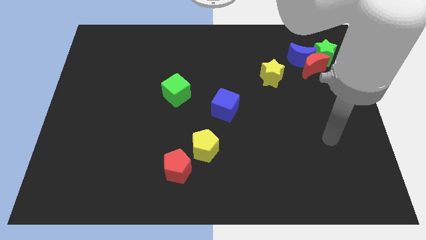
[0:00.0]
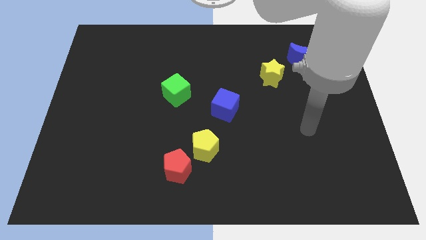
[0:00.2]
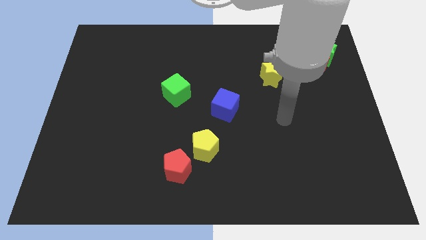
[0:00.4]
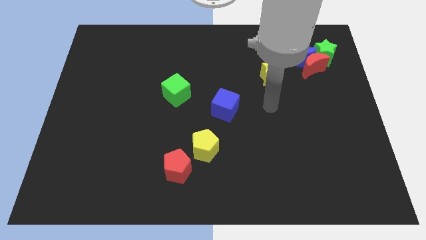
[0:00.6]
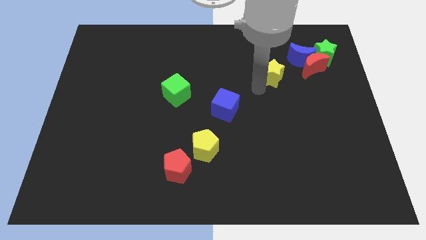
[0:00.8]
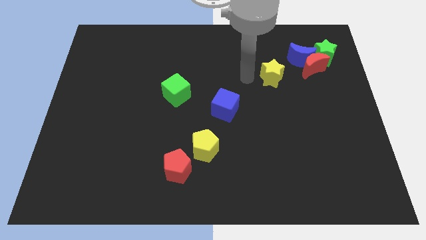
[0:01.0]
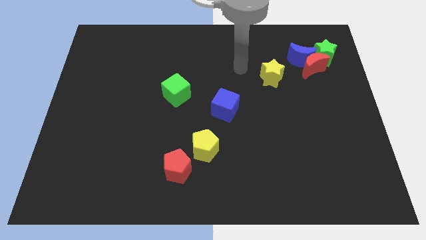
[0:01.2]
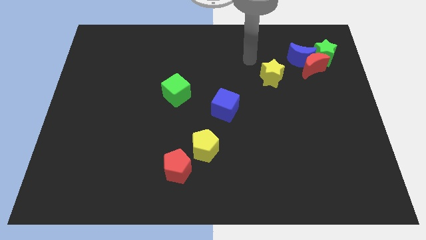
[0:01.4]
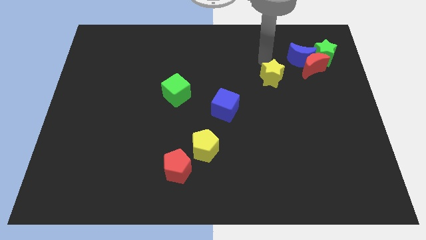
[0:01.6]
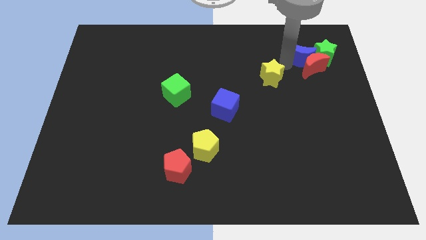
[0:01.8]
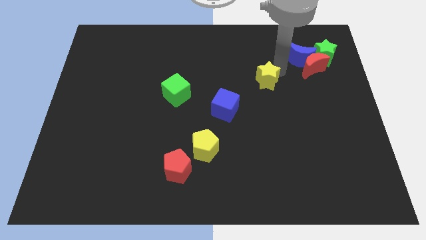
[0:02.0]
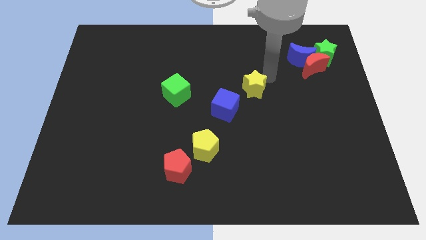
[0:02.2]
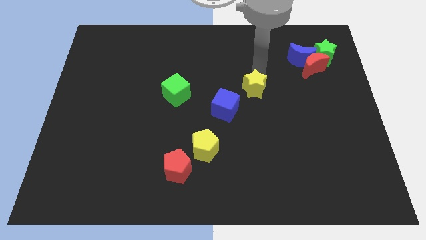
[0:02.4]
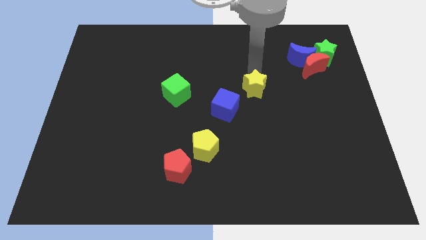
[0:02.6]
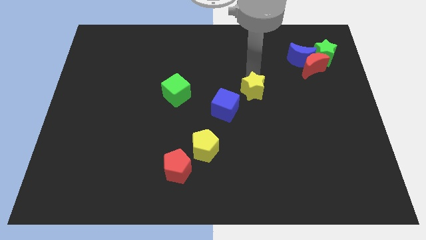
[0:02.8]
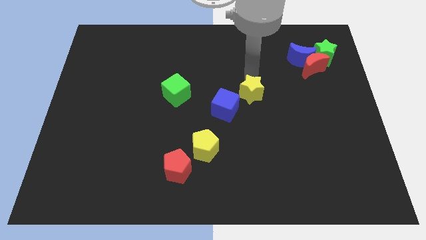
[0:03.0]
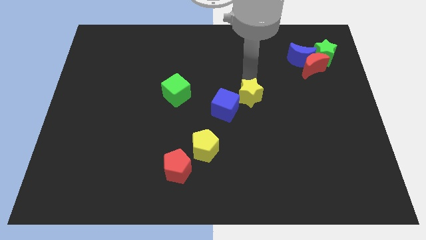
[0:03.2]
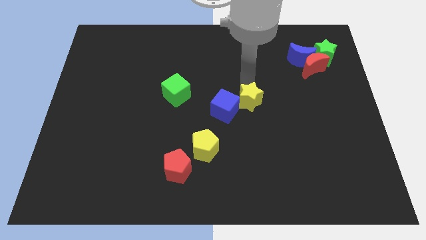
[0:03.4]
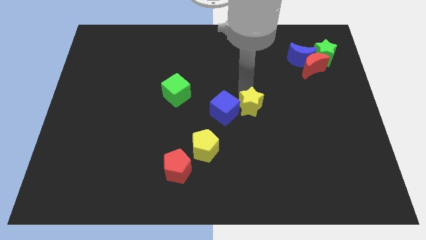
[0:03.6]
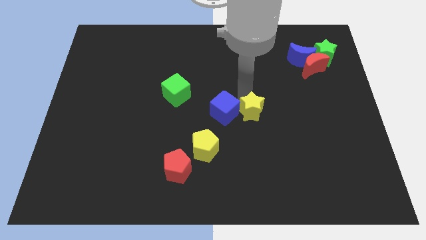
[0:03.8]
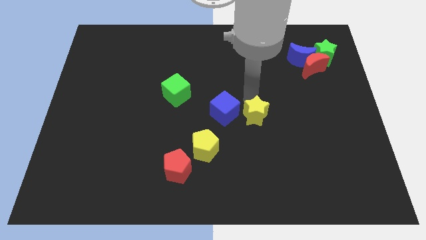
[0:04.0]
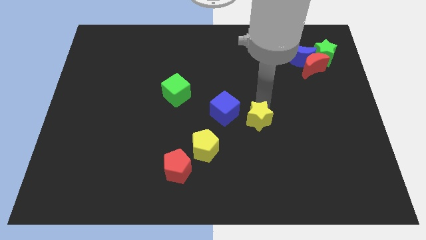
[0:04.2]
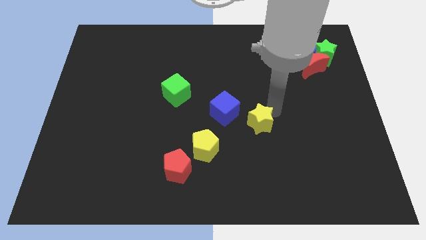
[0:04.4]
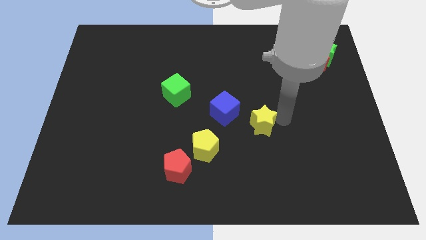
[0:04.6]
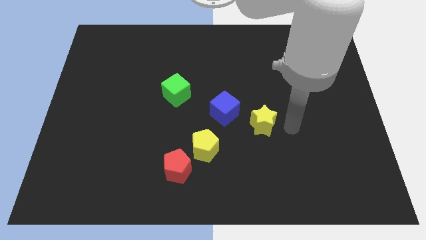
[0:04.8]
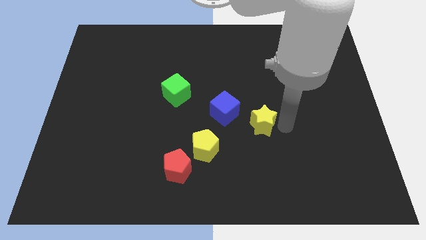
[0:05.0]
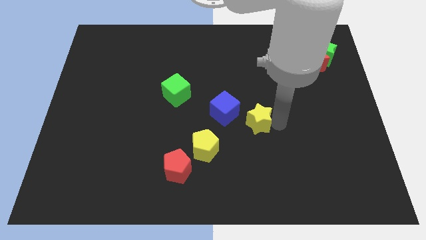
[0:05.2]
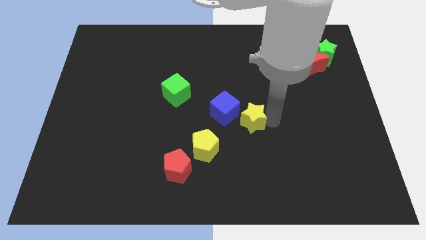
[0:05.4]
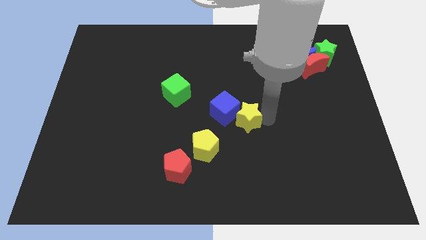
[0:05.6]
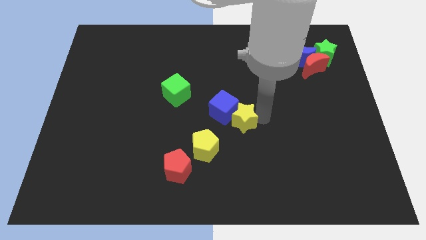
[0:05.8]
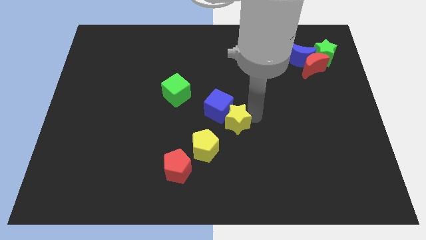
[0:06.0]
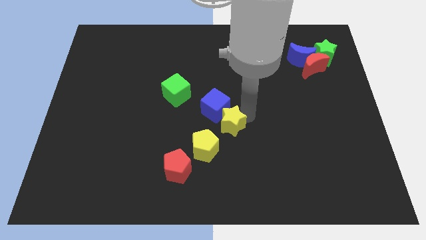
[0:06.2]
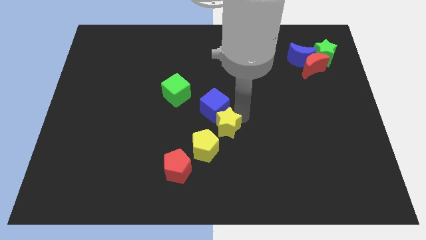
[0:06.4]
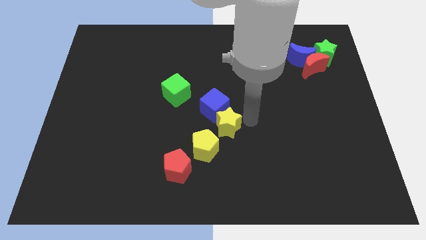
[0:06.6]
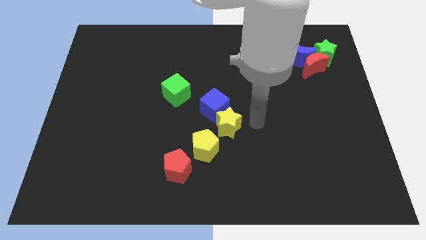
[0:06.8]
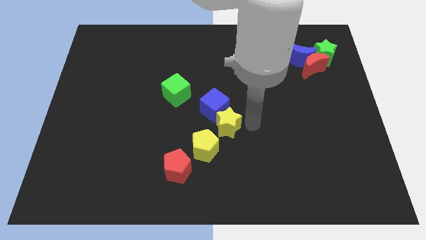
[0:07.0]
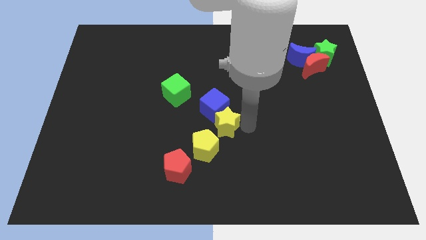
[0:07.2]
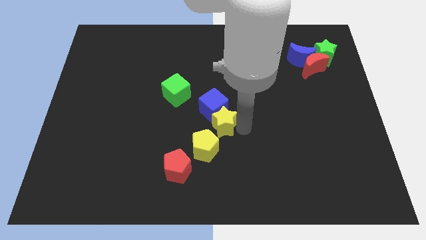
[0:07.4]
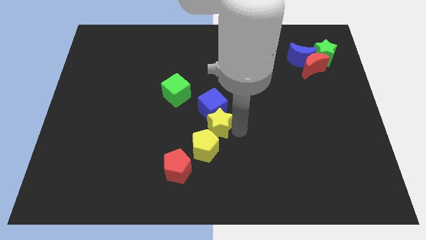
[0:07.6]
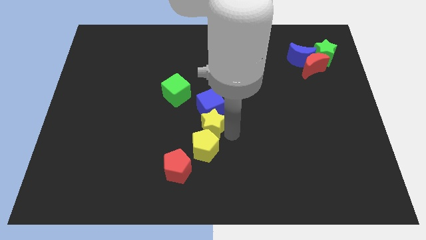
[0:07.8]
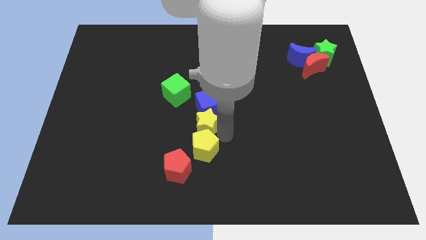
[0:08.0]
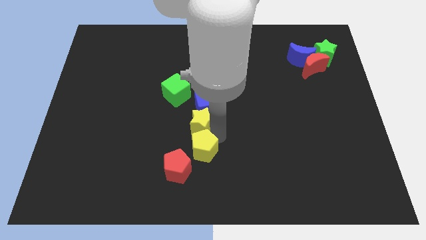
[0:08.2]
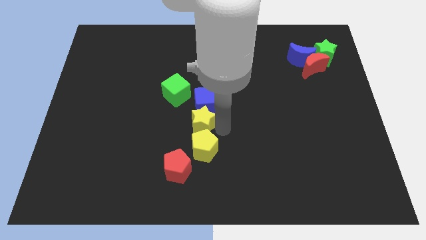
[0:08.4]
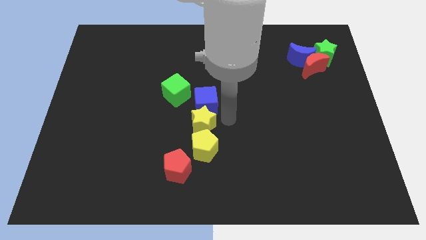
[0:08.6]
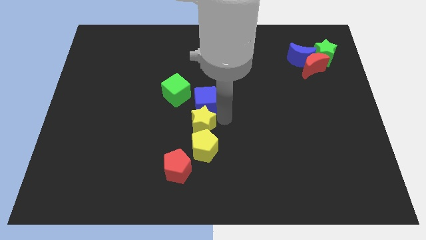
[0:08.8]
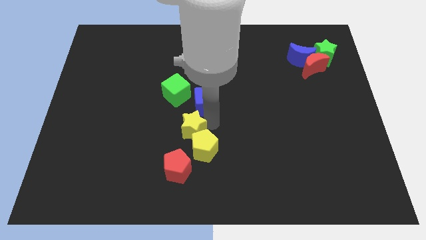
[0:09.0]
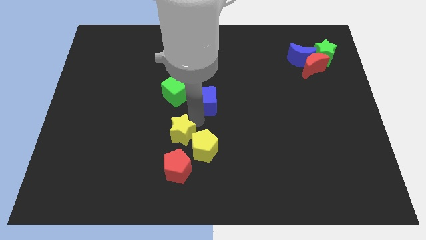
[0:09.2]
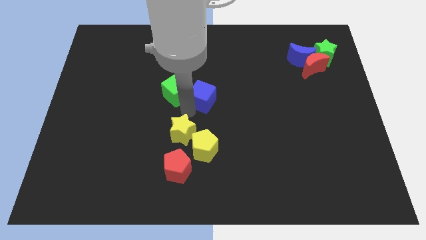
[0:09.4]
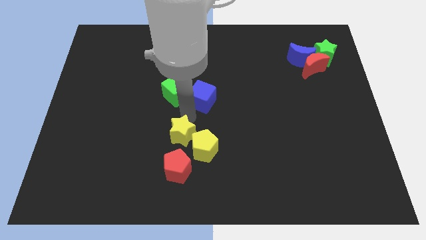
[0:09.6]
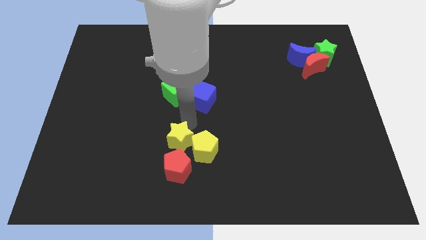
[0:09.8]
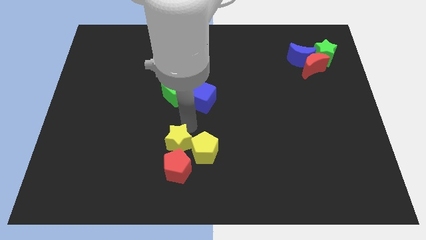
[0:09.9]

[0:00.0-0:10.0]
push the yellow star next to the red pentagon

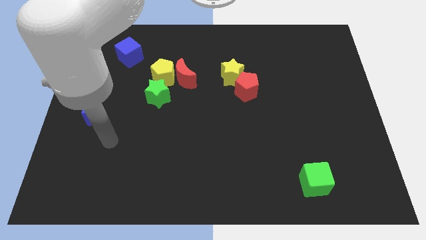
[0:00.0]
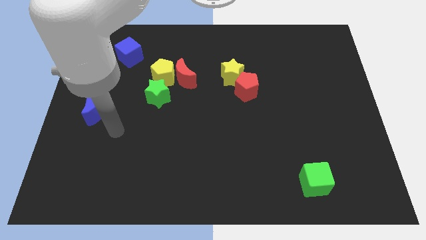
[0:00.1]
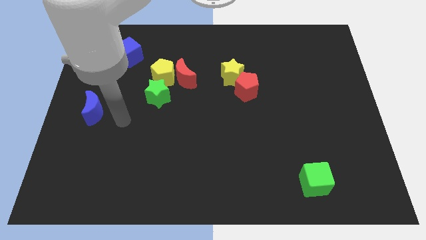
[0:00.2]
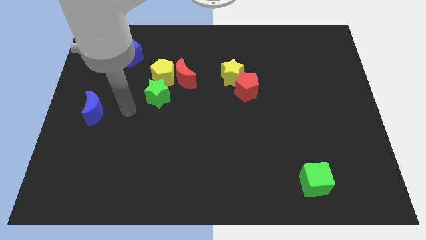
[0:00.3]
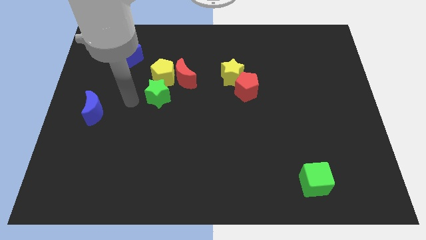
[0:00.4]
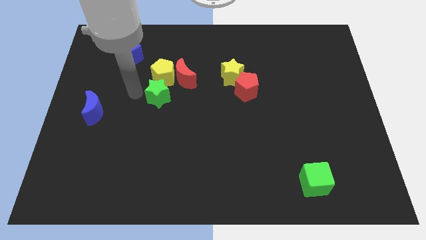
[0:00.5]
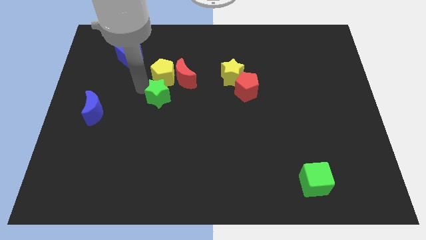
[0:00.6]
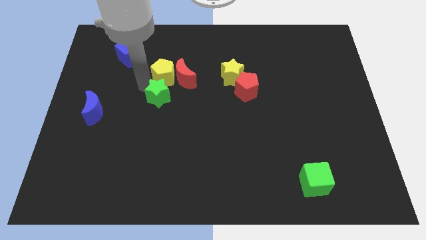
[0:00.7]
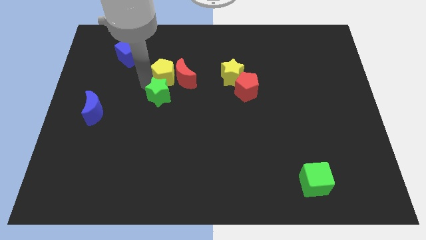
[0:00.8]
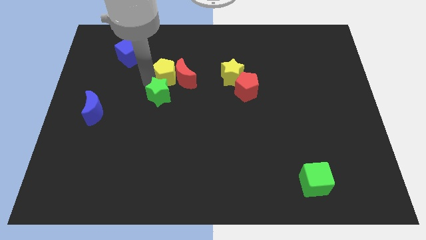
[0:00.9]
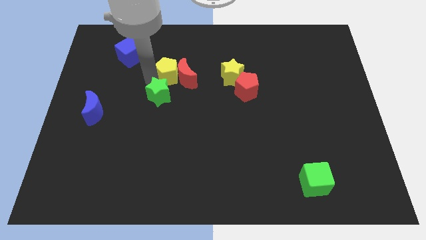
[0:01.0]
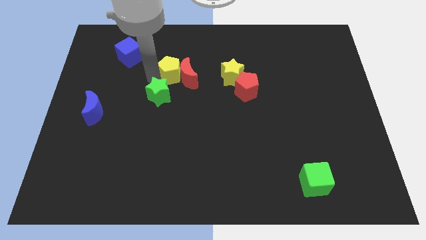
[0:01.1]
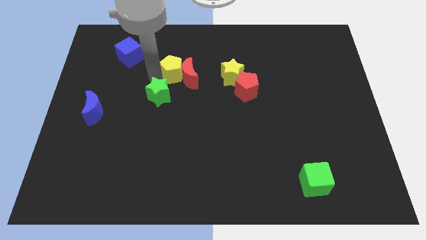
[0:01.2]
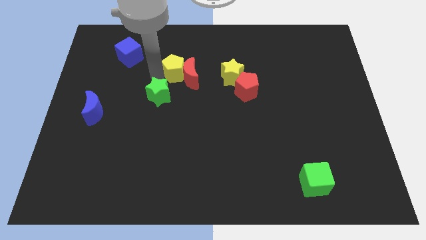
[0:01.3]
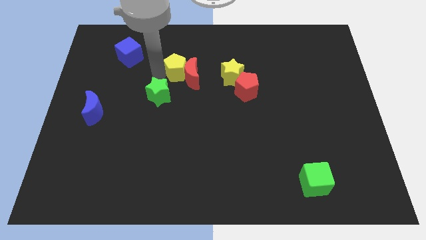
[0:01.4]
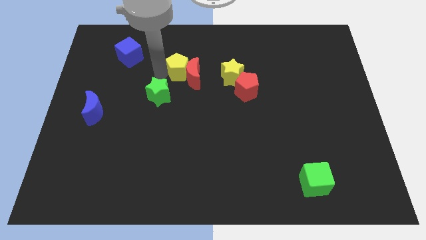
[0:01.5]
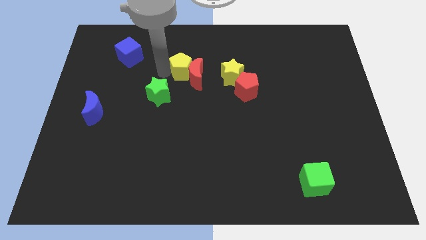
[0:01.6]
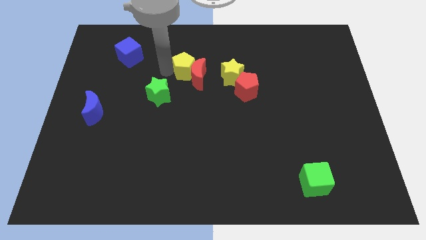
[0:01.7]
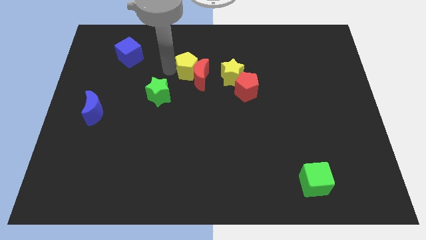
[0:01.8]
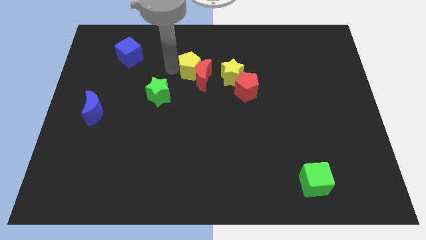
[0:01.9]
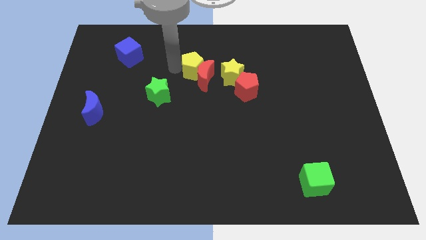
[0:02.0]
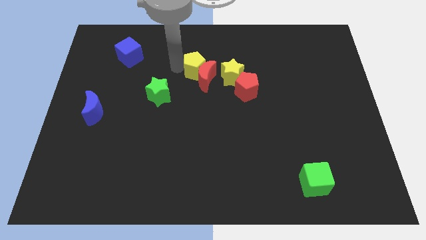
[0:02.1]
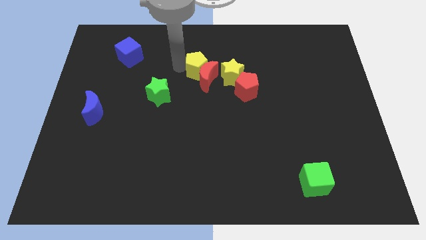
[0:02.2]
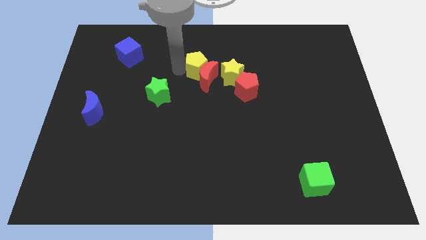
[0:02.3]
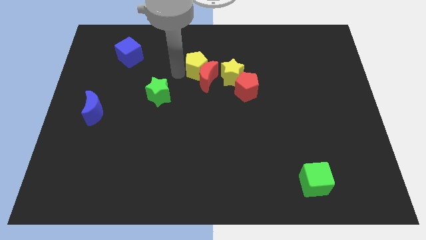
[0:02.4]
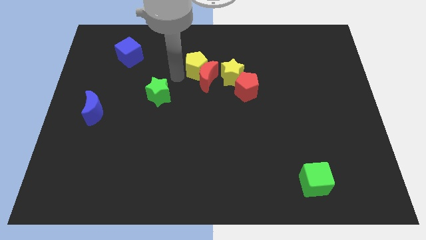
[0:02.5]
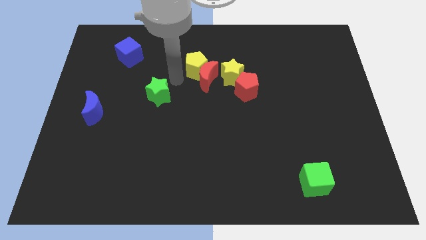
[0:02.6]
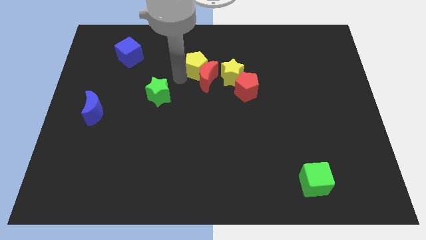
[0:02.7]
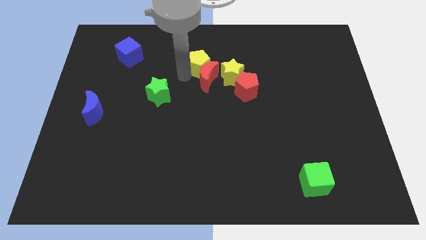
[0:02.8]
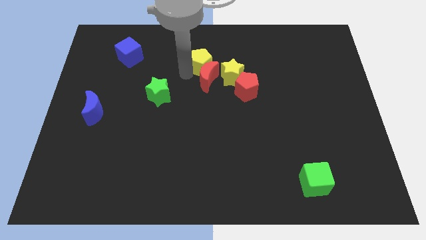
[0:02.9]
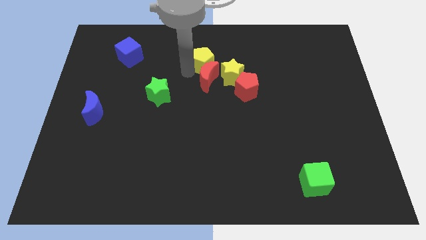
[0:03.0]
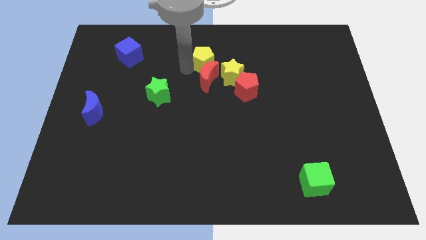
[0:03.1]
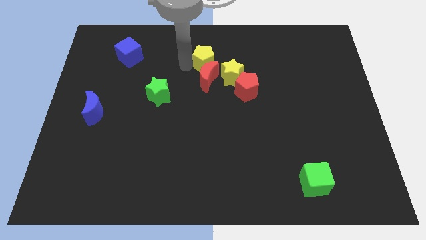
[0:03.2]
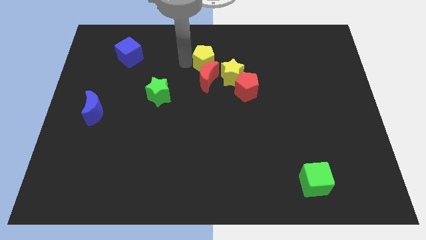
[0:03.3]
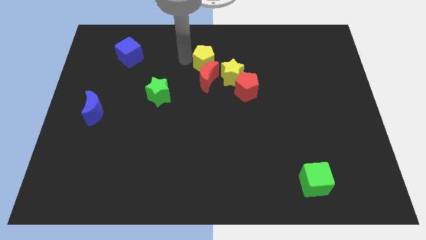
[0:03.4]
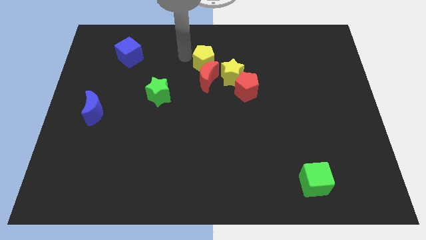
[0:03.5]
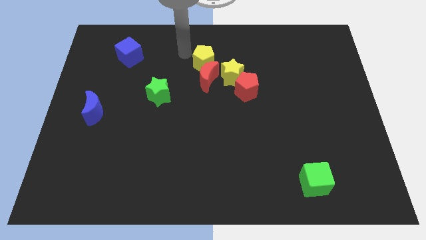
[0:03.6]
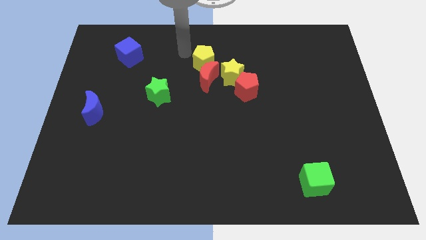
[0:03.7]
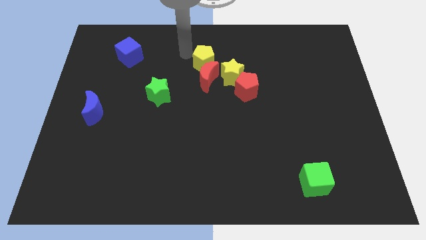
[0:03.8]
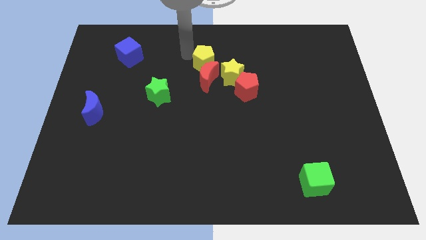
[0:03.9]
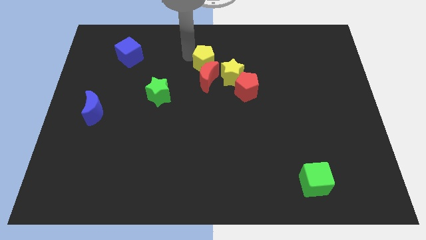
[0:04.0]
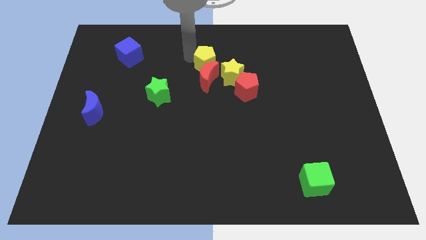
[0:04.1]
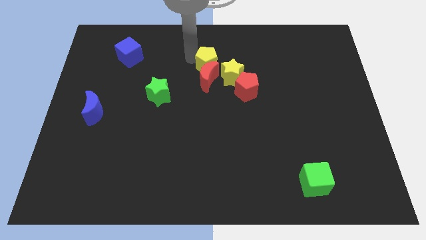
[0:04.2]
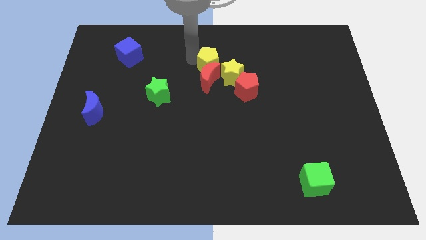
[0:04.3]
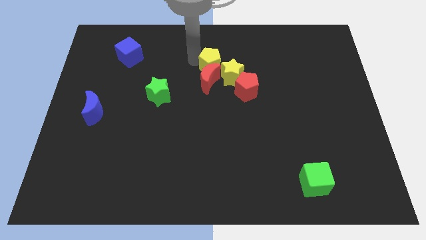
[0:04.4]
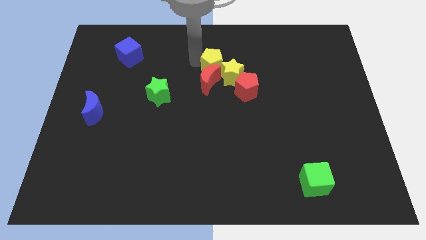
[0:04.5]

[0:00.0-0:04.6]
put the yellow pentagon next to the yellow star
